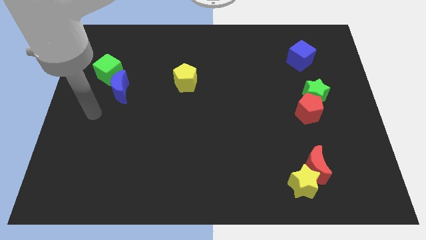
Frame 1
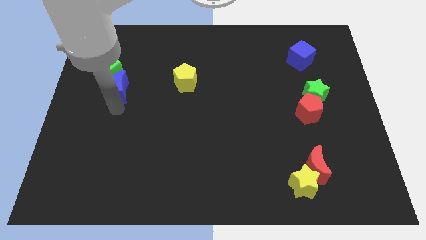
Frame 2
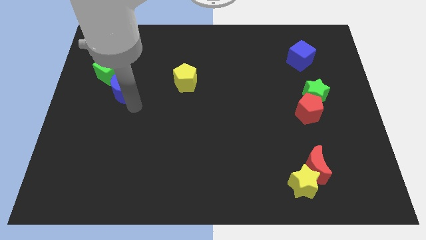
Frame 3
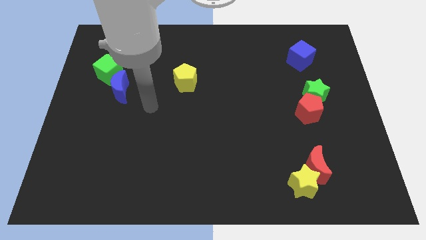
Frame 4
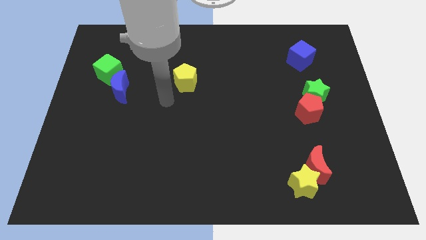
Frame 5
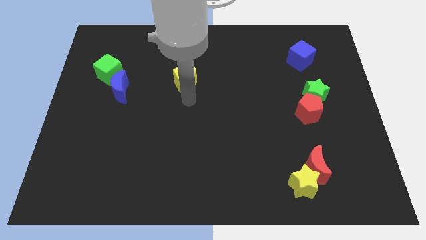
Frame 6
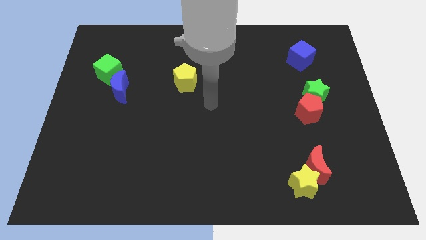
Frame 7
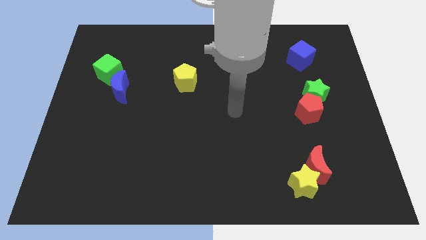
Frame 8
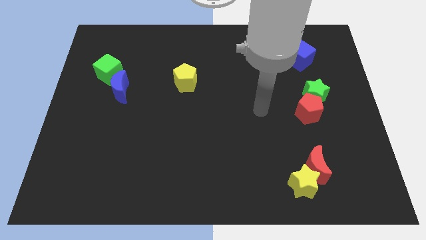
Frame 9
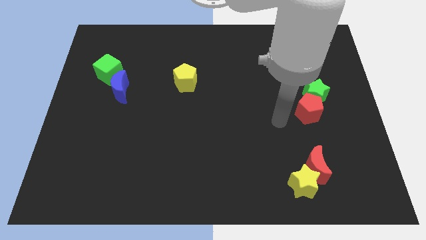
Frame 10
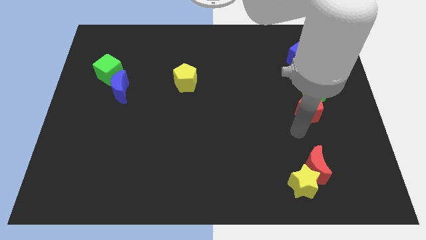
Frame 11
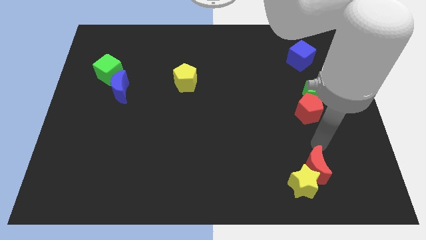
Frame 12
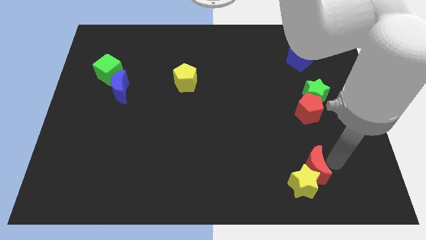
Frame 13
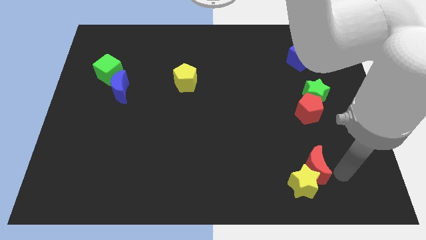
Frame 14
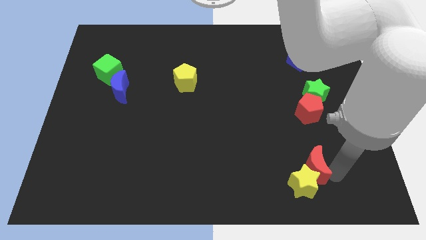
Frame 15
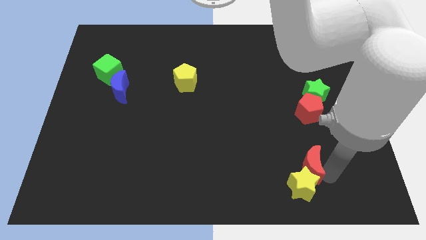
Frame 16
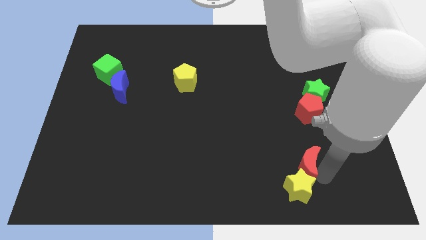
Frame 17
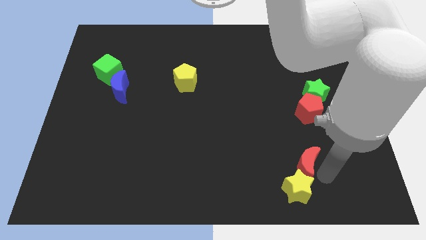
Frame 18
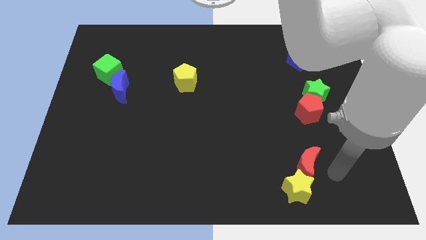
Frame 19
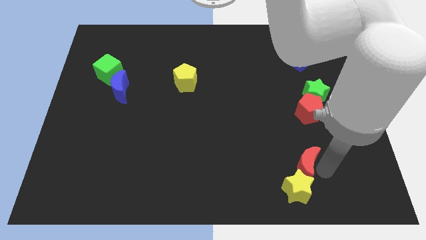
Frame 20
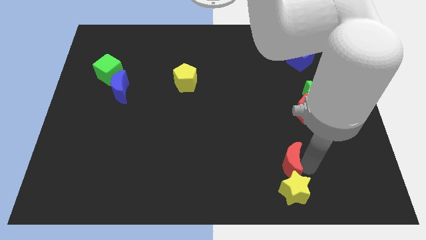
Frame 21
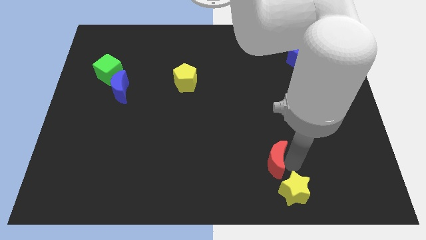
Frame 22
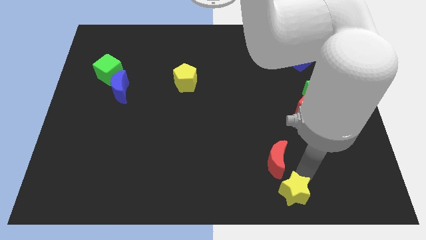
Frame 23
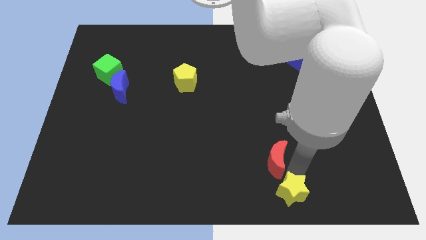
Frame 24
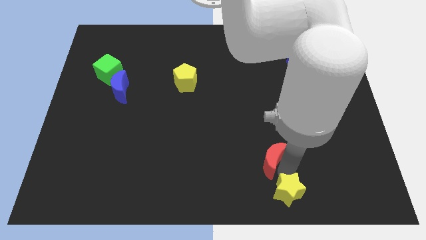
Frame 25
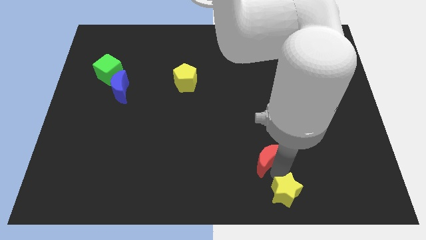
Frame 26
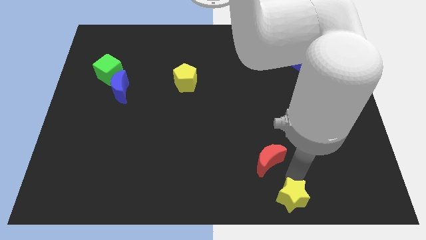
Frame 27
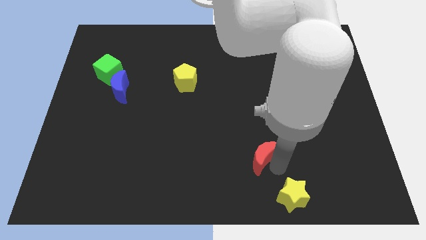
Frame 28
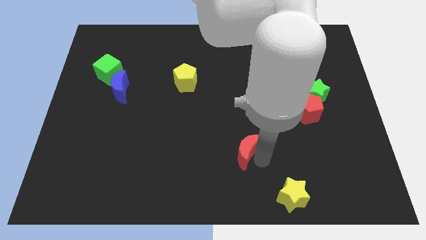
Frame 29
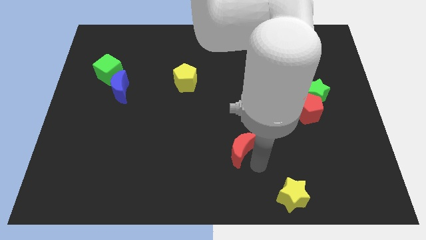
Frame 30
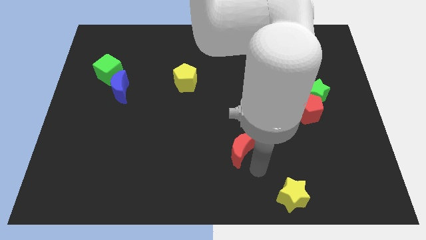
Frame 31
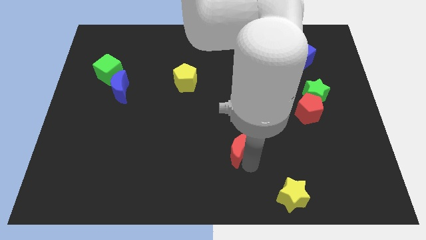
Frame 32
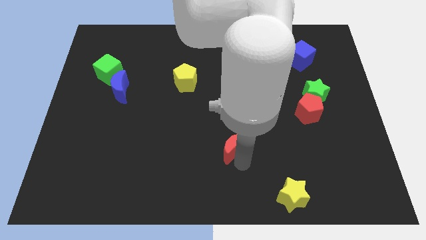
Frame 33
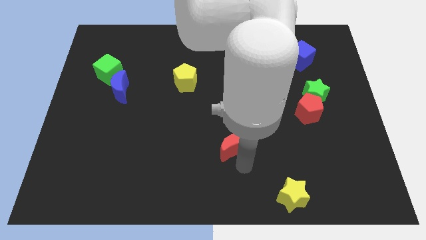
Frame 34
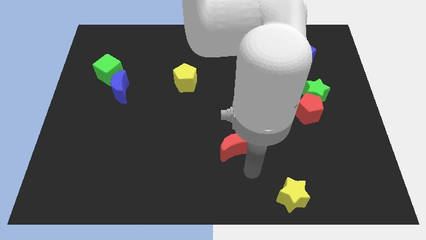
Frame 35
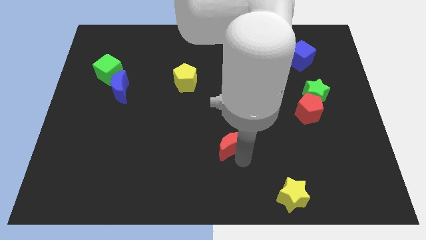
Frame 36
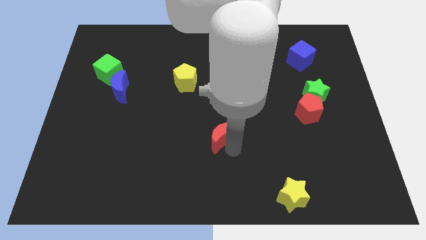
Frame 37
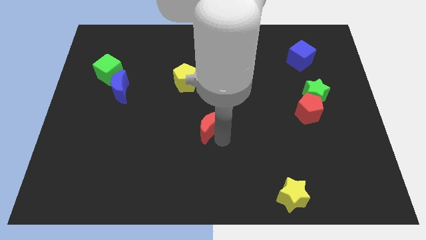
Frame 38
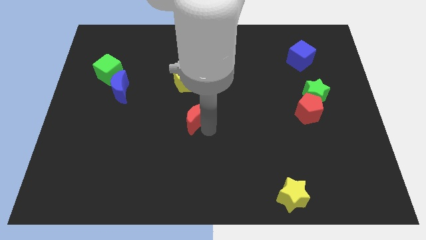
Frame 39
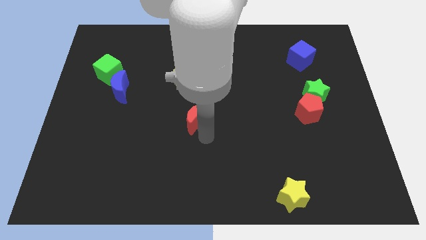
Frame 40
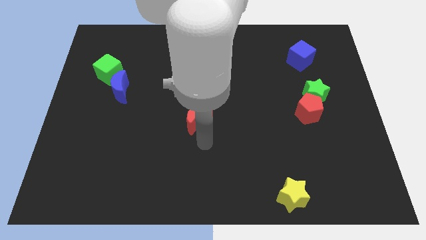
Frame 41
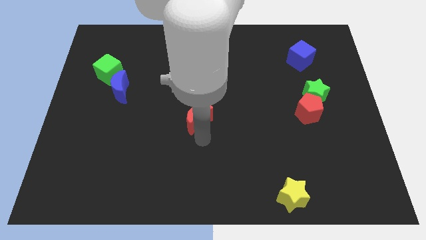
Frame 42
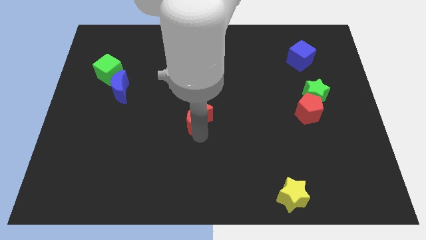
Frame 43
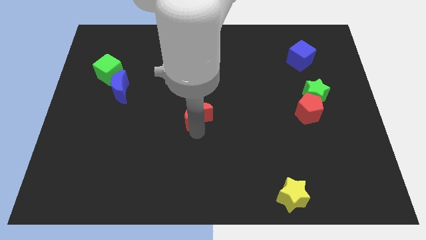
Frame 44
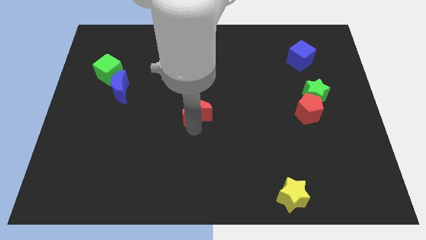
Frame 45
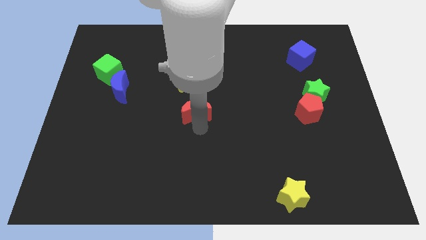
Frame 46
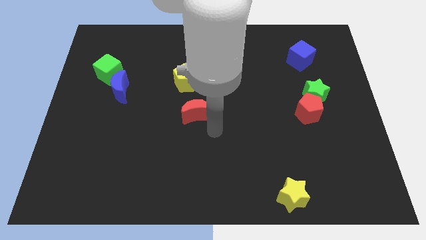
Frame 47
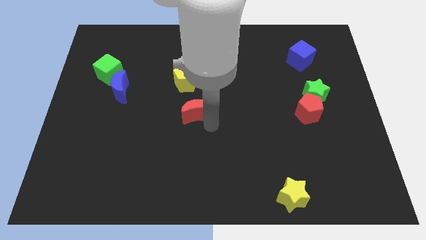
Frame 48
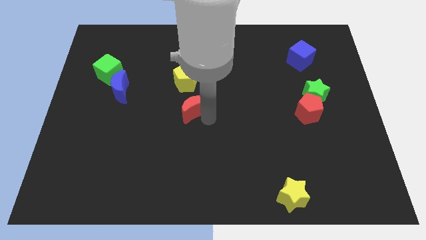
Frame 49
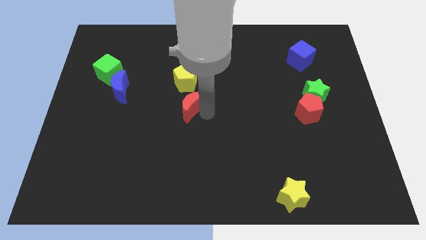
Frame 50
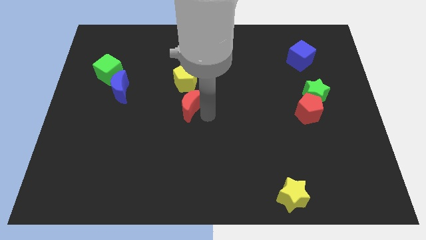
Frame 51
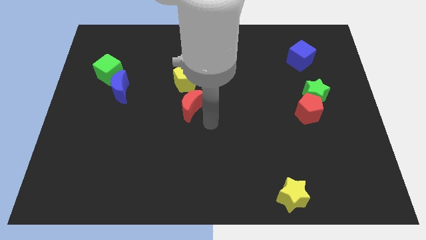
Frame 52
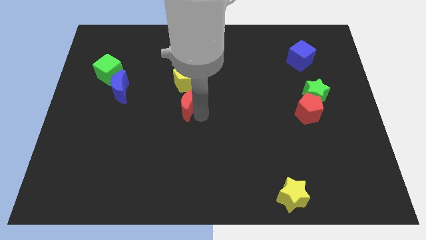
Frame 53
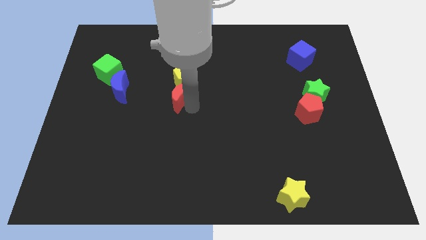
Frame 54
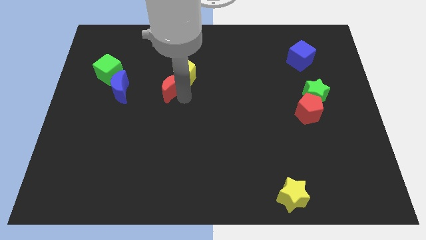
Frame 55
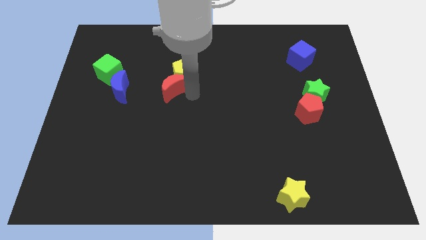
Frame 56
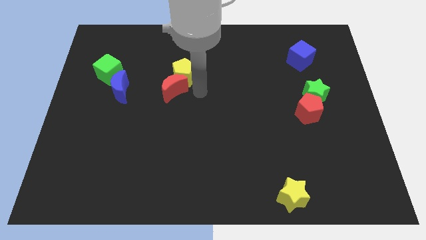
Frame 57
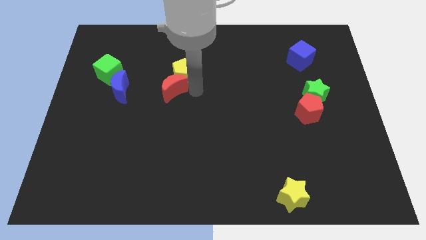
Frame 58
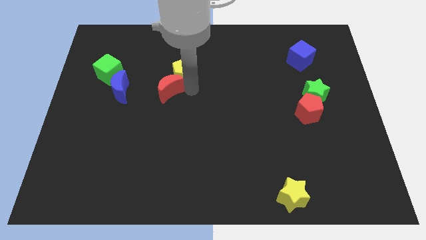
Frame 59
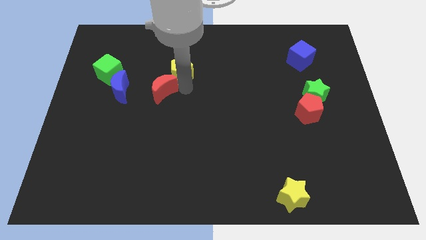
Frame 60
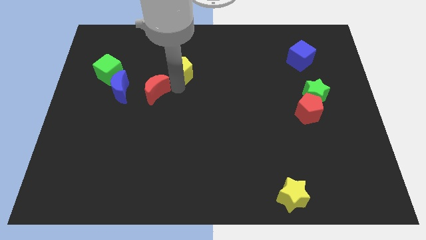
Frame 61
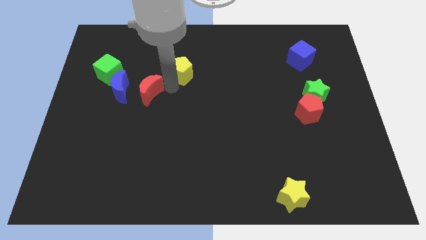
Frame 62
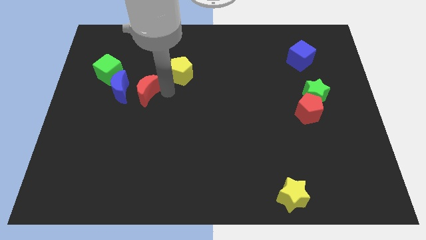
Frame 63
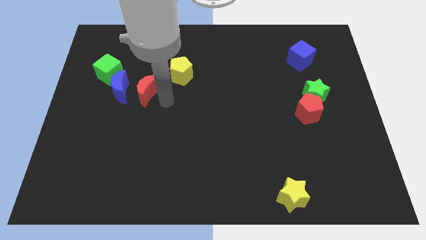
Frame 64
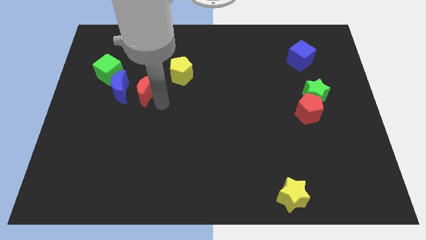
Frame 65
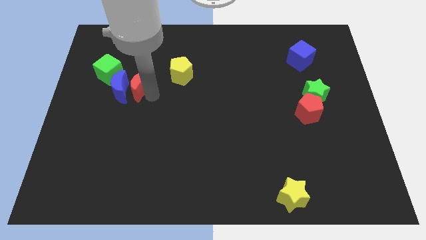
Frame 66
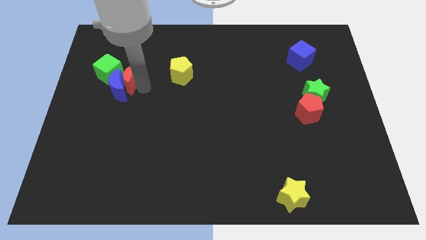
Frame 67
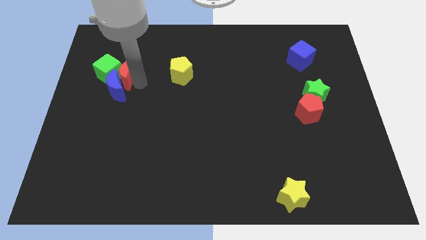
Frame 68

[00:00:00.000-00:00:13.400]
move the red moon to the green cube
